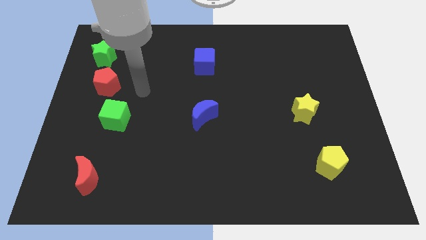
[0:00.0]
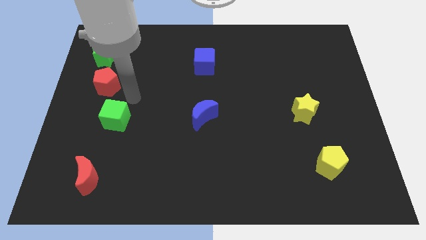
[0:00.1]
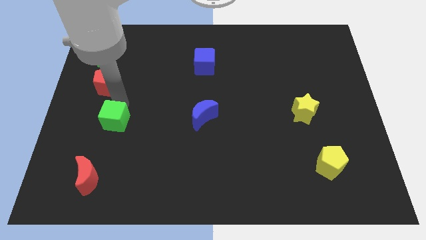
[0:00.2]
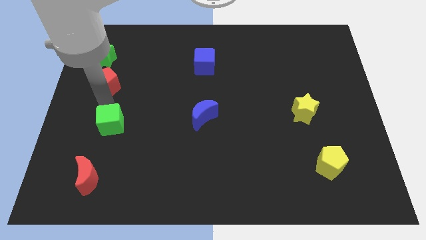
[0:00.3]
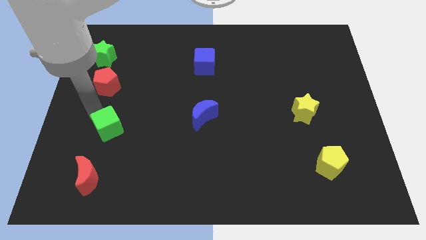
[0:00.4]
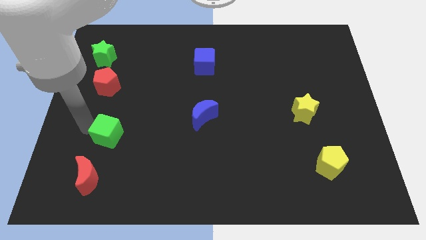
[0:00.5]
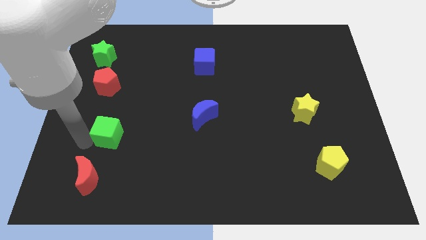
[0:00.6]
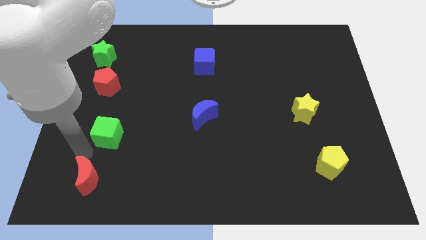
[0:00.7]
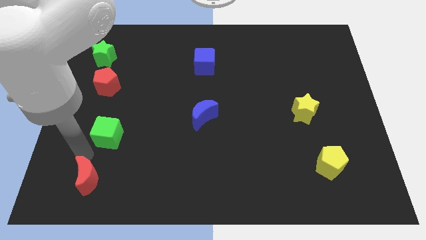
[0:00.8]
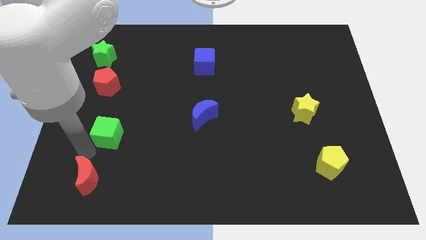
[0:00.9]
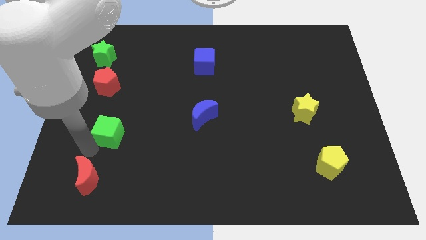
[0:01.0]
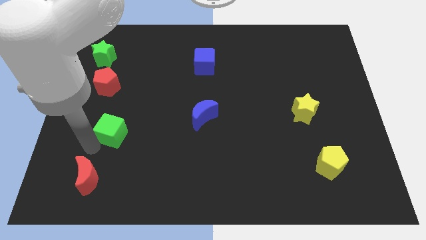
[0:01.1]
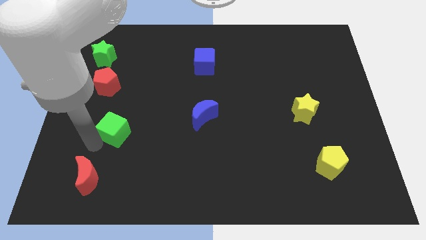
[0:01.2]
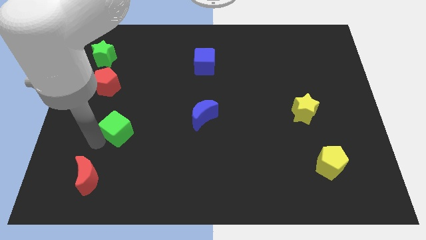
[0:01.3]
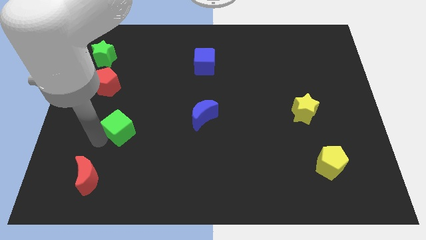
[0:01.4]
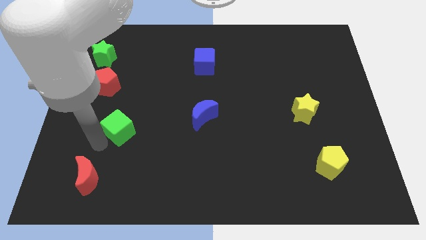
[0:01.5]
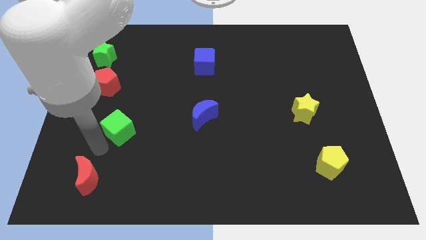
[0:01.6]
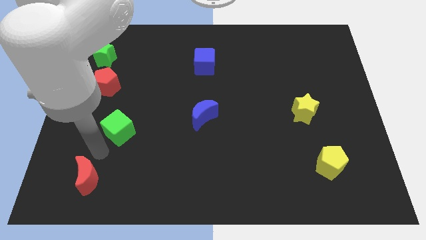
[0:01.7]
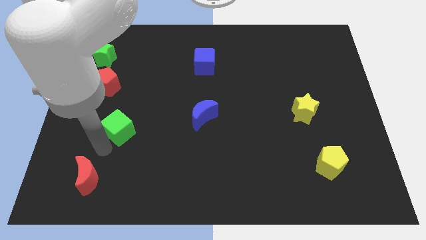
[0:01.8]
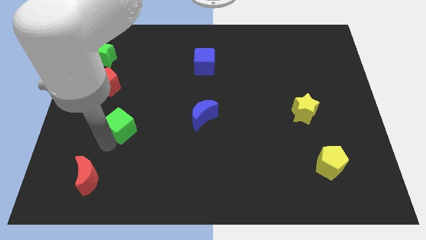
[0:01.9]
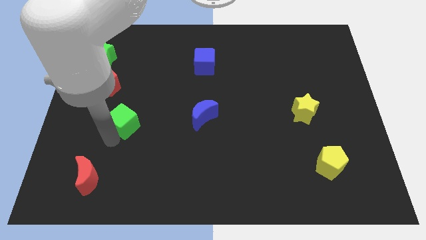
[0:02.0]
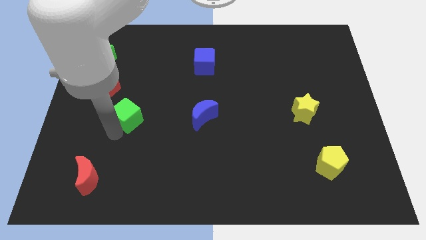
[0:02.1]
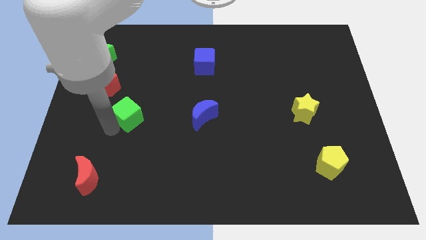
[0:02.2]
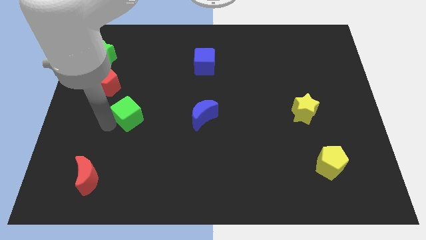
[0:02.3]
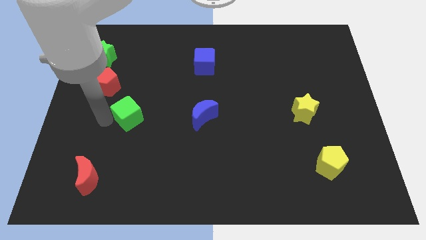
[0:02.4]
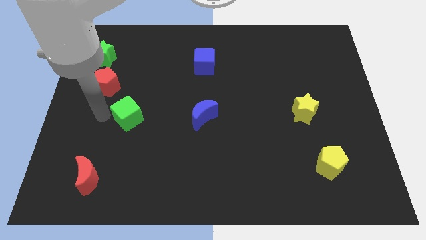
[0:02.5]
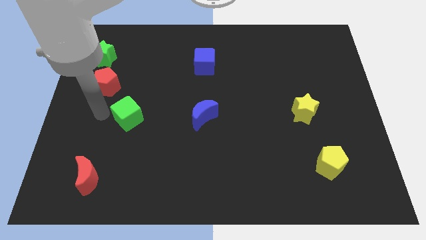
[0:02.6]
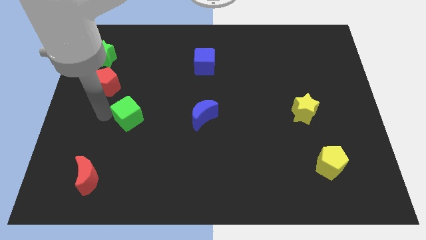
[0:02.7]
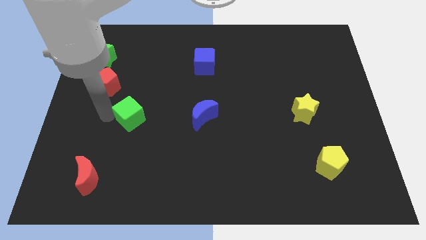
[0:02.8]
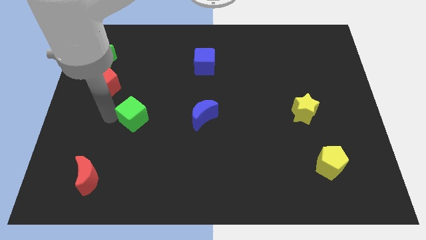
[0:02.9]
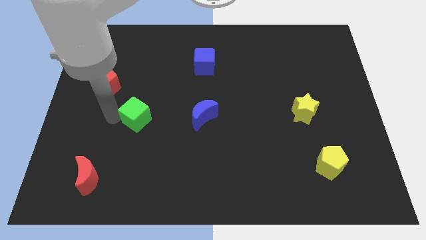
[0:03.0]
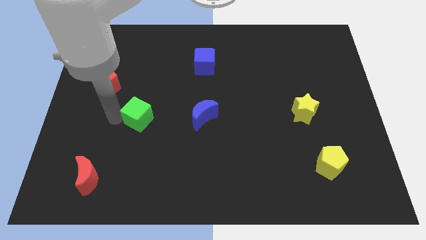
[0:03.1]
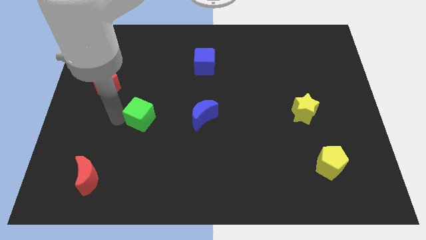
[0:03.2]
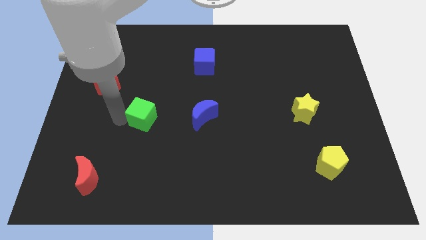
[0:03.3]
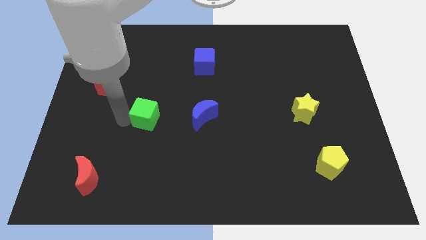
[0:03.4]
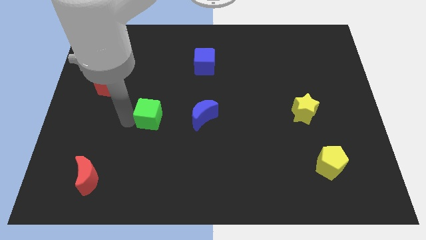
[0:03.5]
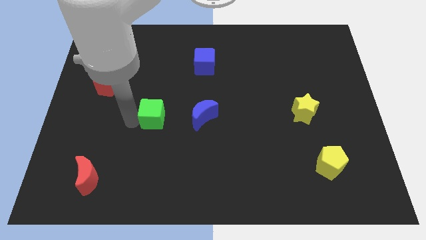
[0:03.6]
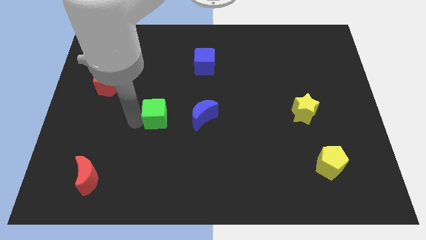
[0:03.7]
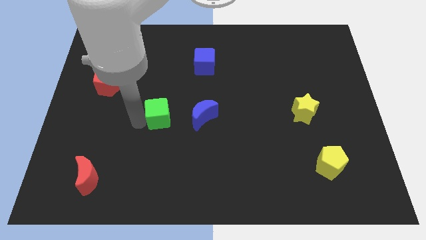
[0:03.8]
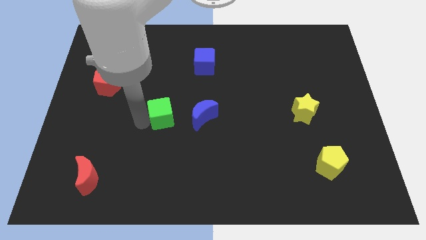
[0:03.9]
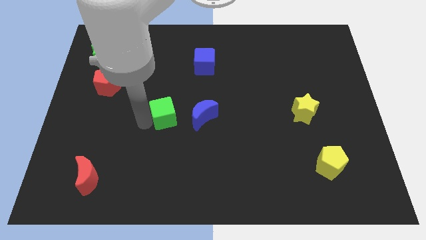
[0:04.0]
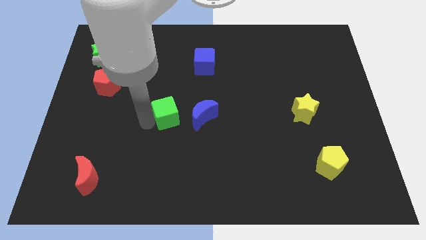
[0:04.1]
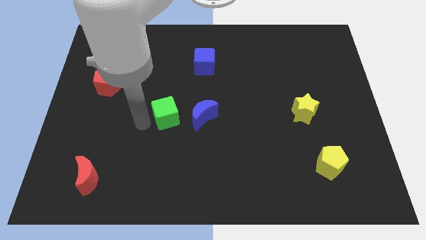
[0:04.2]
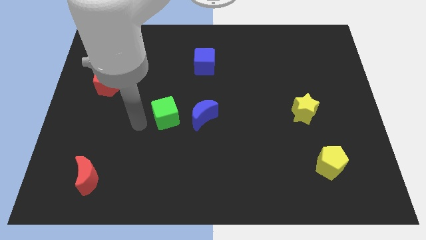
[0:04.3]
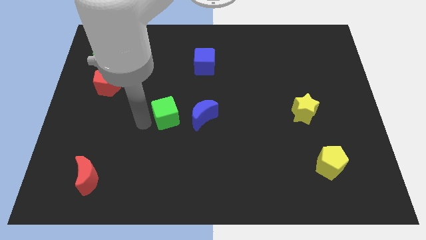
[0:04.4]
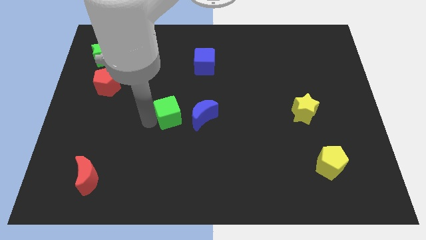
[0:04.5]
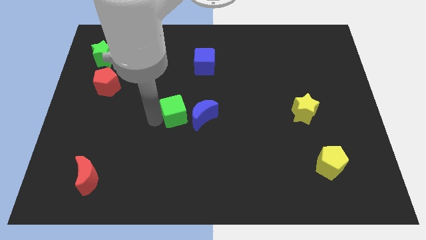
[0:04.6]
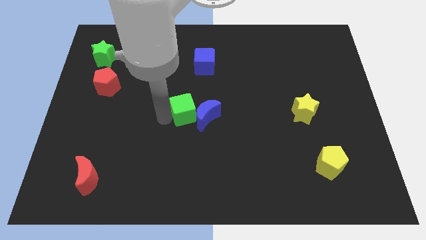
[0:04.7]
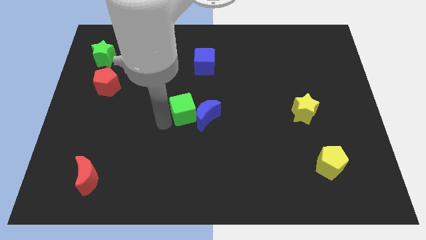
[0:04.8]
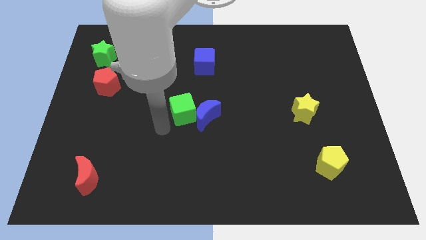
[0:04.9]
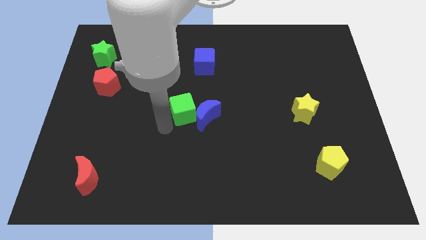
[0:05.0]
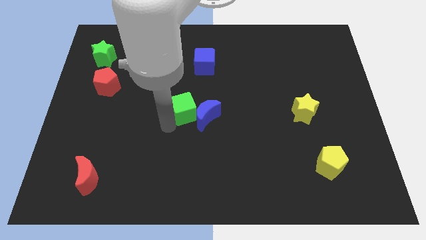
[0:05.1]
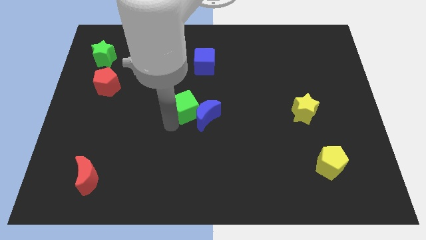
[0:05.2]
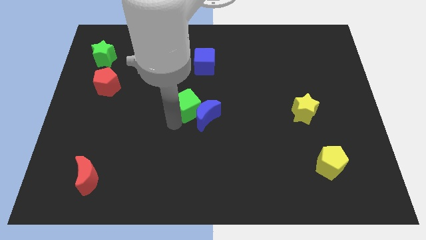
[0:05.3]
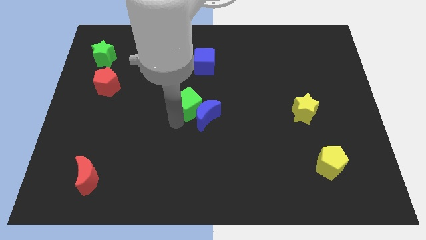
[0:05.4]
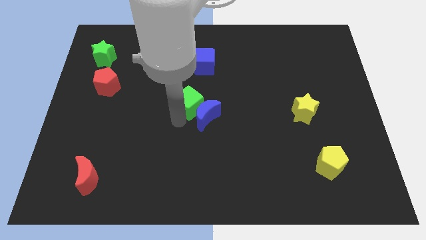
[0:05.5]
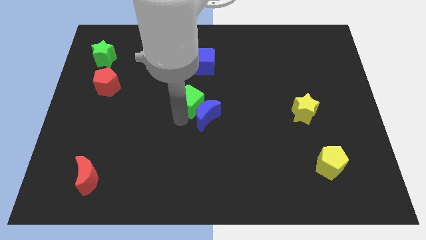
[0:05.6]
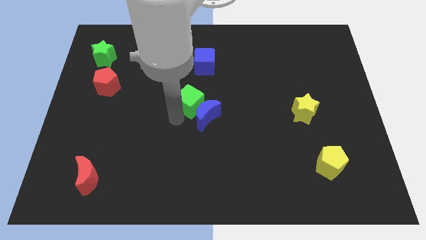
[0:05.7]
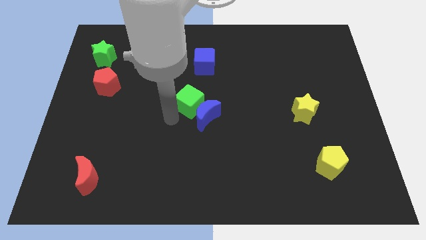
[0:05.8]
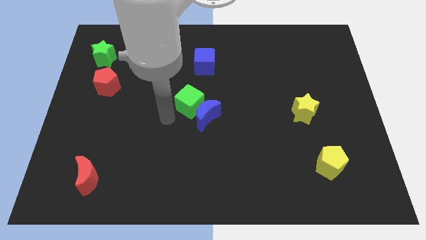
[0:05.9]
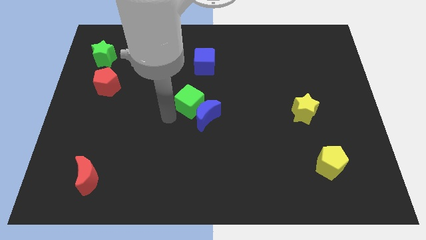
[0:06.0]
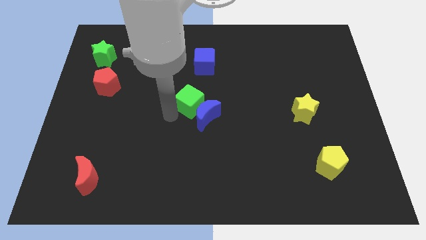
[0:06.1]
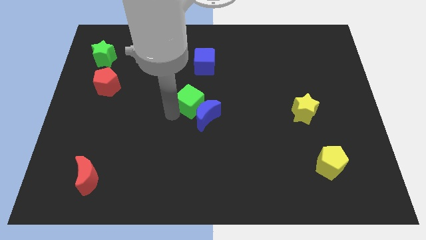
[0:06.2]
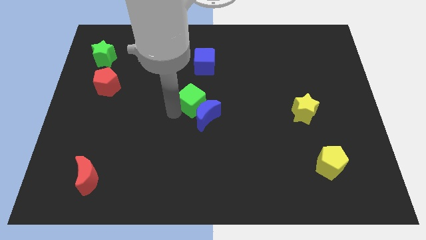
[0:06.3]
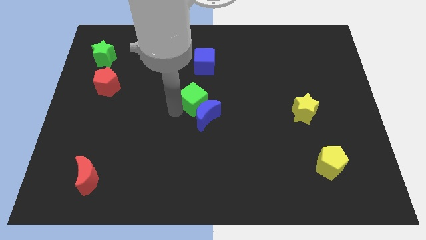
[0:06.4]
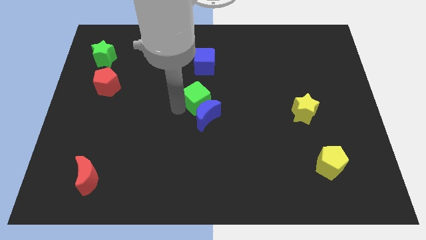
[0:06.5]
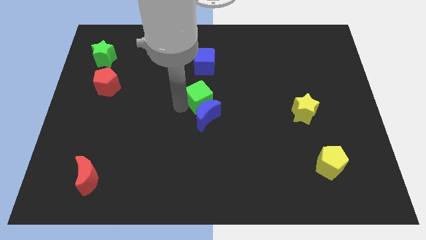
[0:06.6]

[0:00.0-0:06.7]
move the green cube diagonally up and to the right of the blue moon

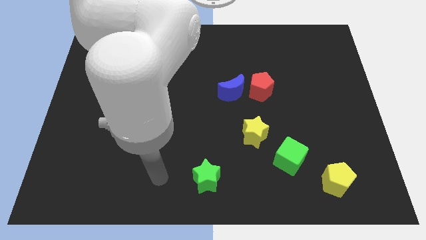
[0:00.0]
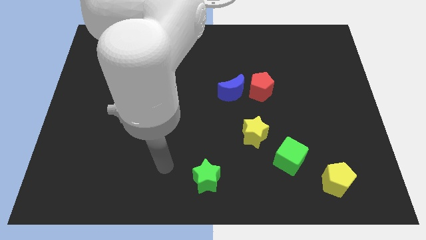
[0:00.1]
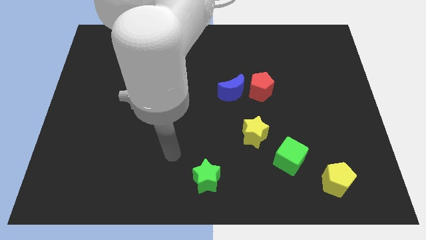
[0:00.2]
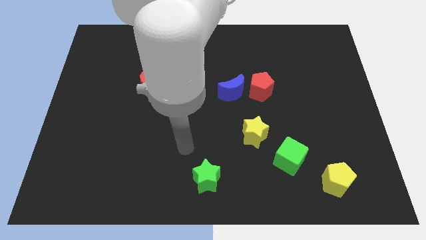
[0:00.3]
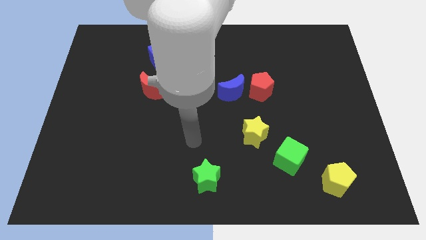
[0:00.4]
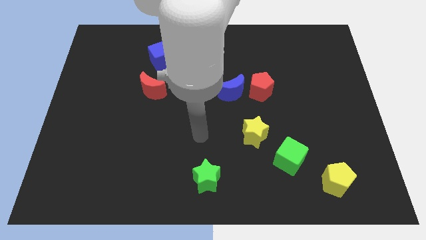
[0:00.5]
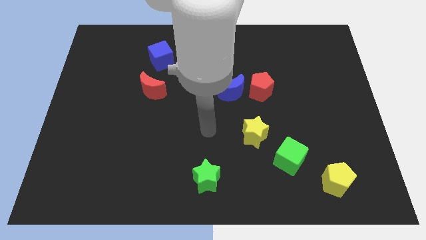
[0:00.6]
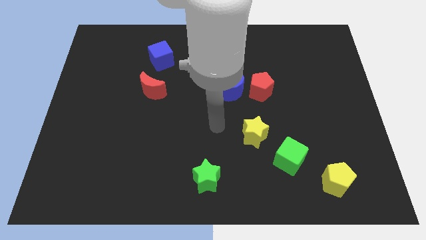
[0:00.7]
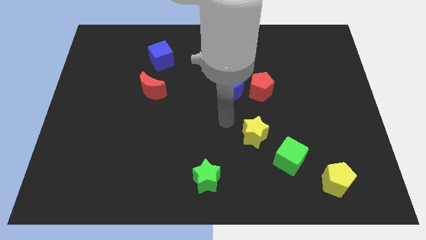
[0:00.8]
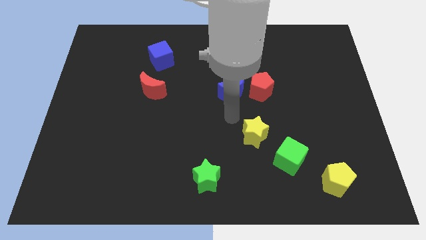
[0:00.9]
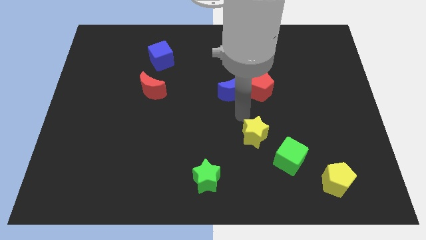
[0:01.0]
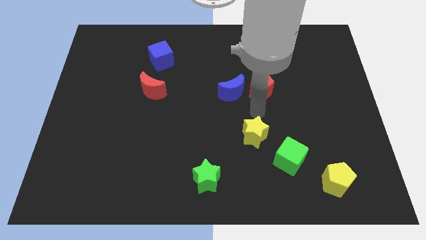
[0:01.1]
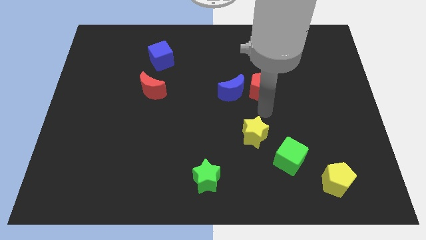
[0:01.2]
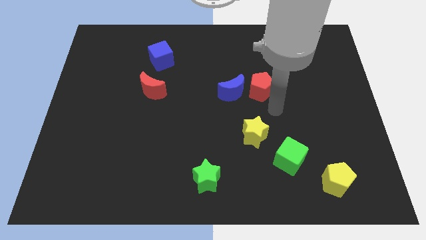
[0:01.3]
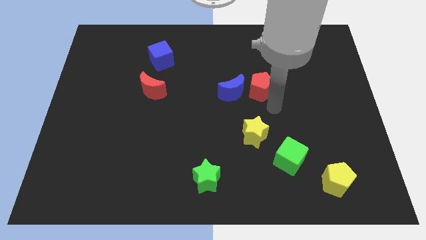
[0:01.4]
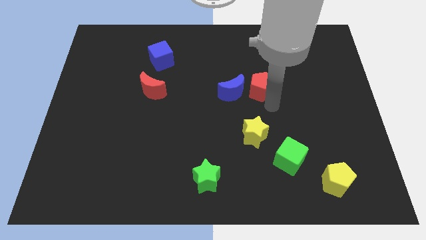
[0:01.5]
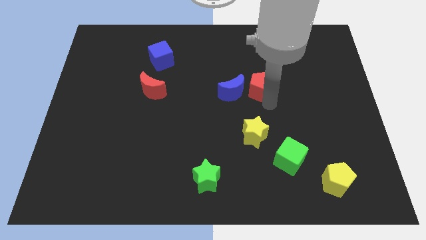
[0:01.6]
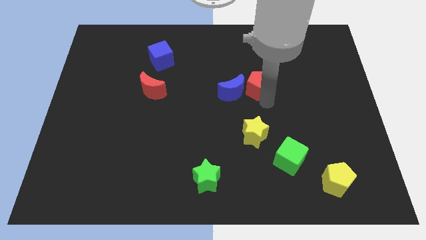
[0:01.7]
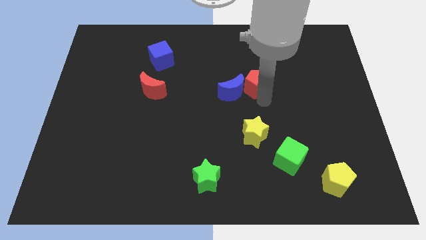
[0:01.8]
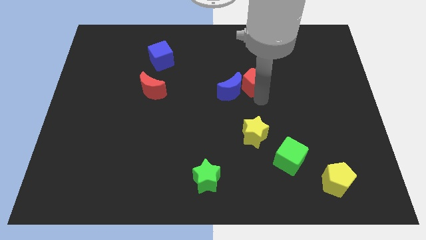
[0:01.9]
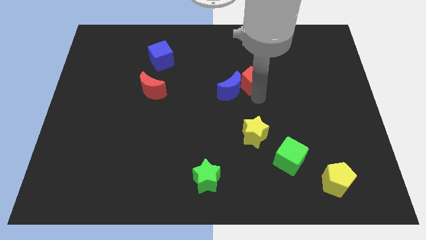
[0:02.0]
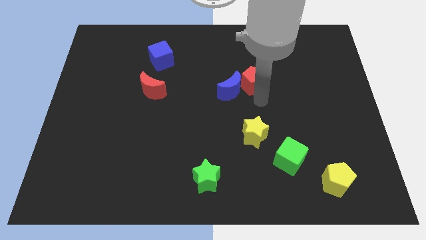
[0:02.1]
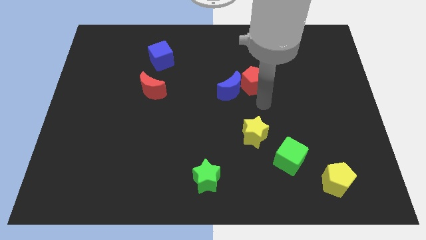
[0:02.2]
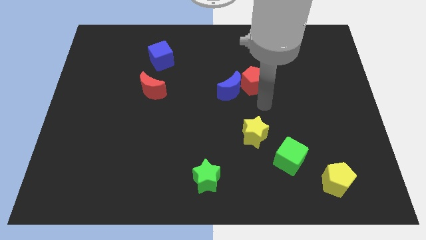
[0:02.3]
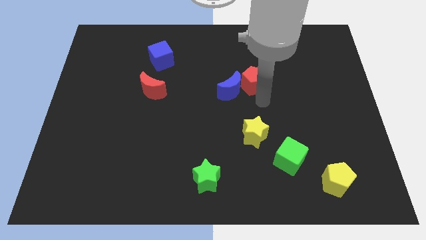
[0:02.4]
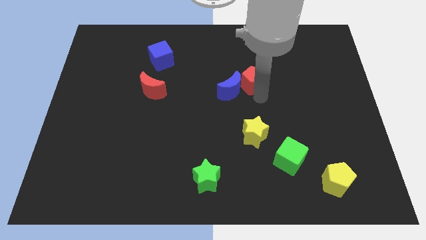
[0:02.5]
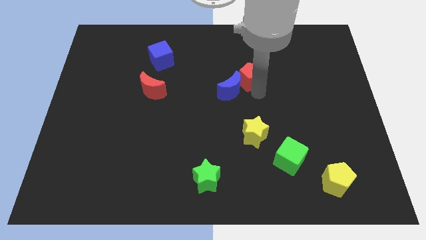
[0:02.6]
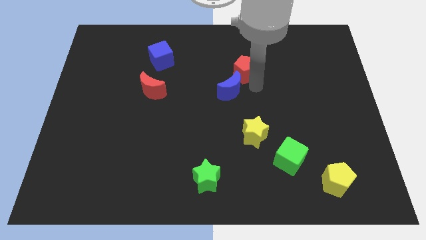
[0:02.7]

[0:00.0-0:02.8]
slide the red pentagon above the blue moon
